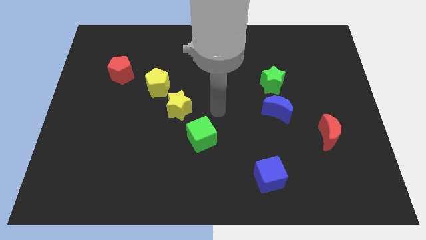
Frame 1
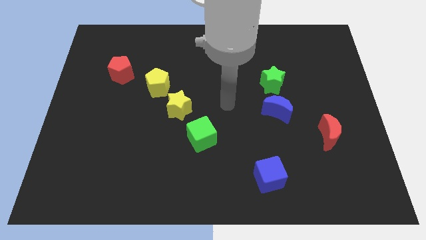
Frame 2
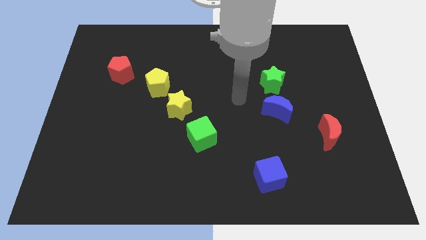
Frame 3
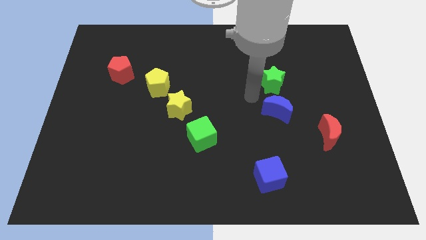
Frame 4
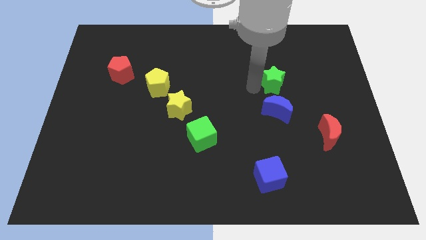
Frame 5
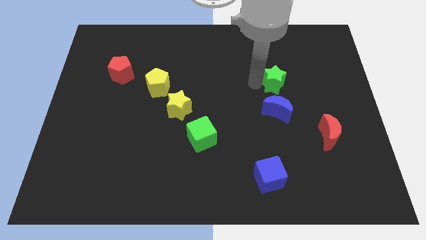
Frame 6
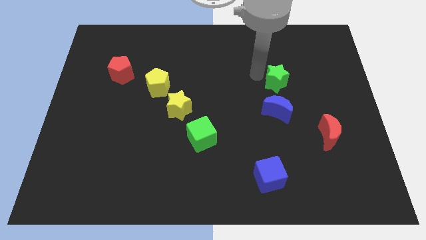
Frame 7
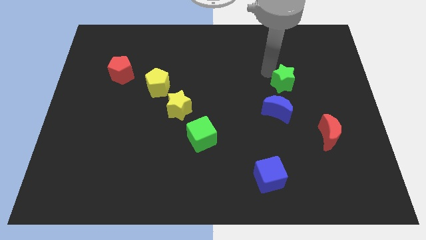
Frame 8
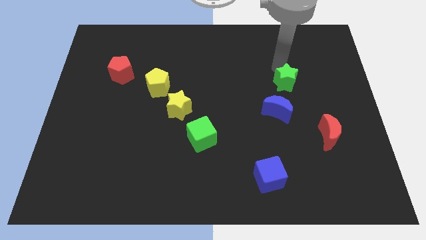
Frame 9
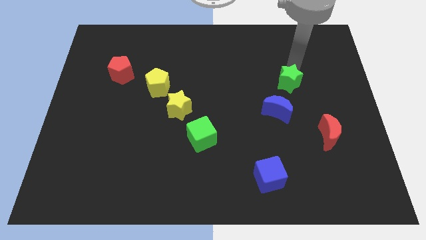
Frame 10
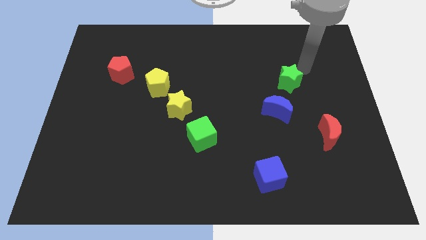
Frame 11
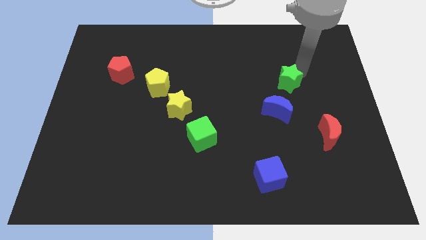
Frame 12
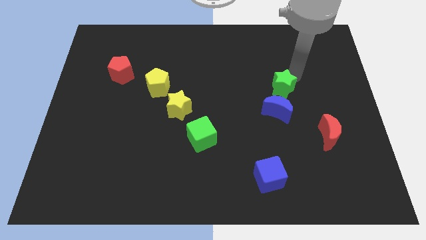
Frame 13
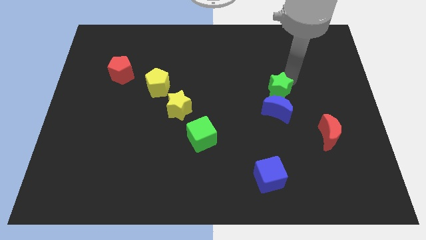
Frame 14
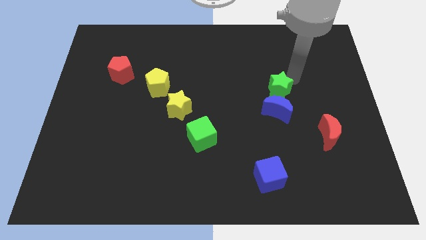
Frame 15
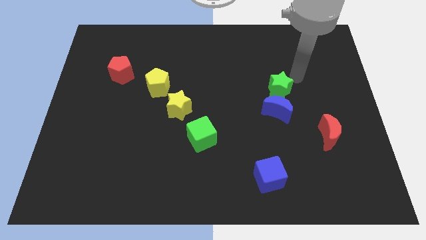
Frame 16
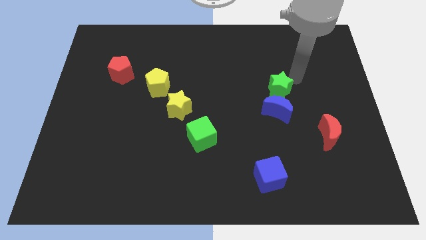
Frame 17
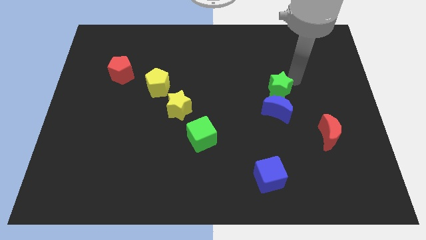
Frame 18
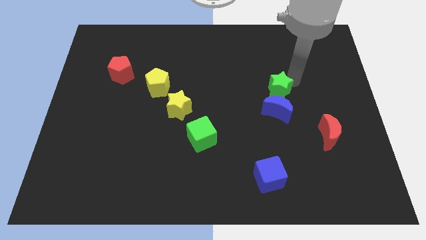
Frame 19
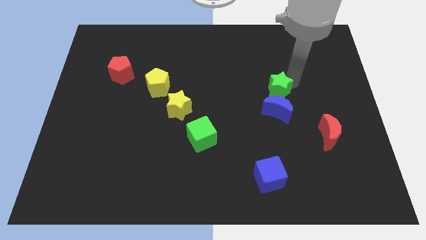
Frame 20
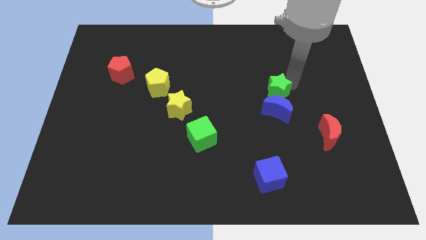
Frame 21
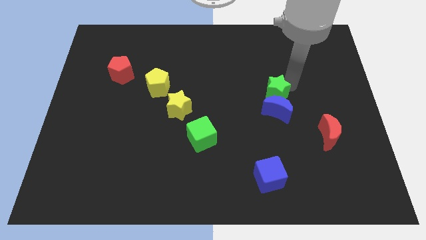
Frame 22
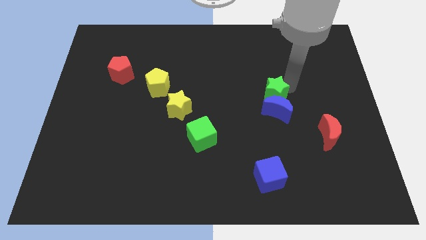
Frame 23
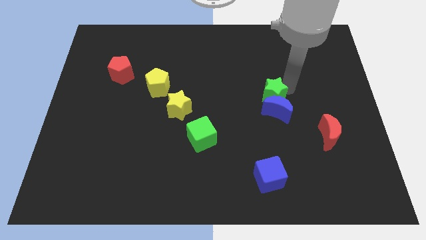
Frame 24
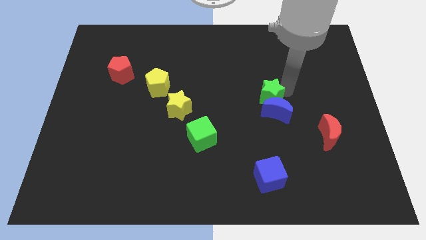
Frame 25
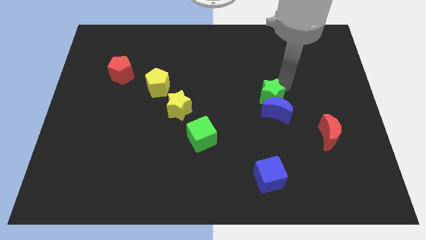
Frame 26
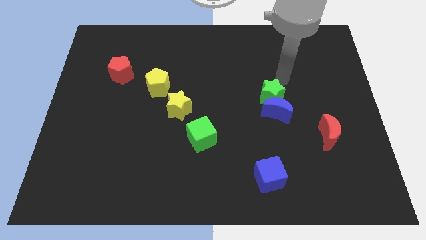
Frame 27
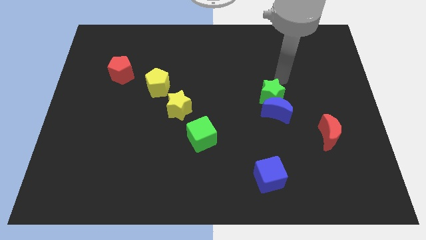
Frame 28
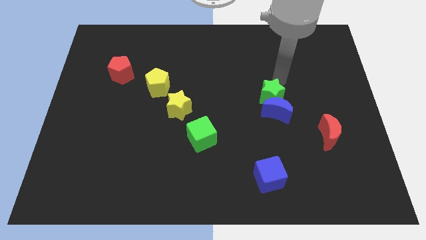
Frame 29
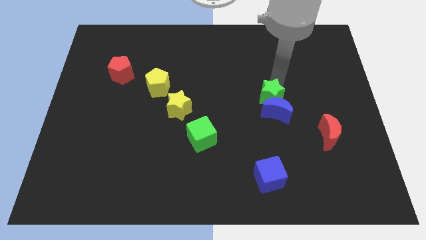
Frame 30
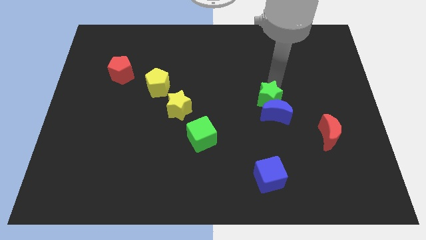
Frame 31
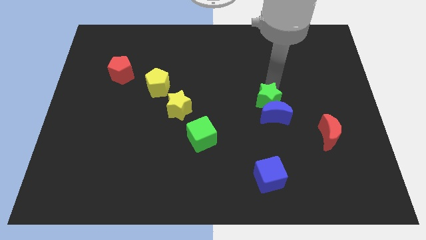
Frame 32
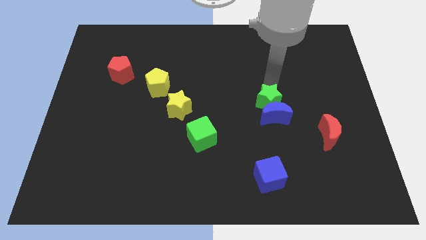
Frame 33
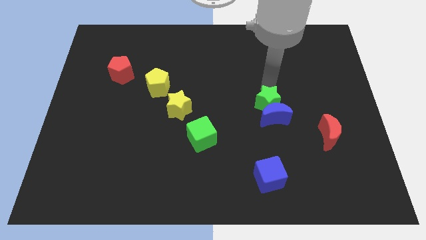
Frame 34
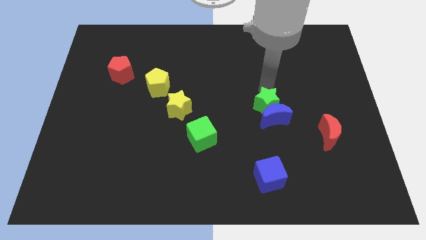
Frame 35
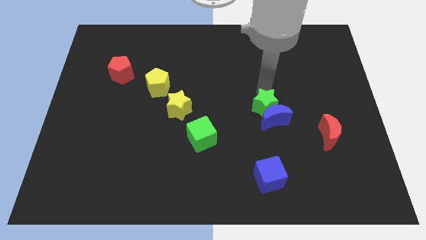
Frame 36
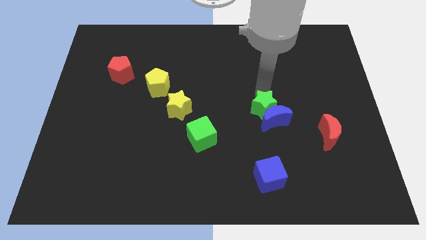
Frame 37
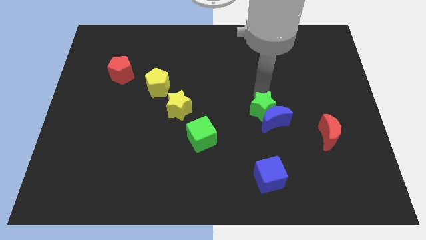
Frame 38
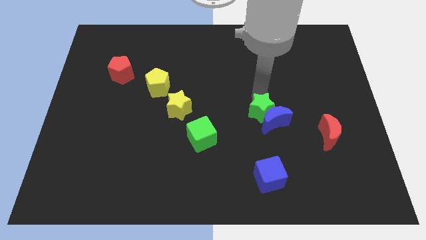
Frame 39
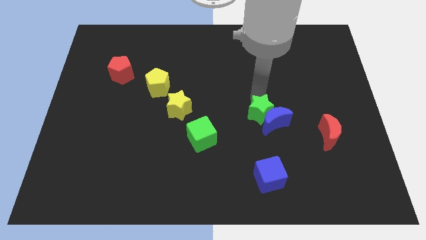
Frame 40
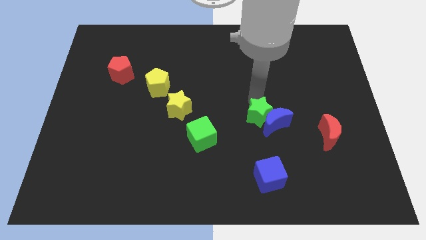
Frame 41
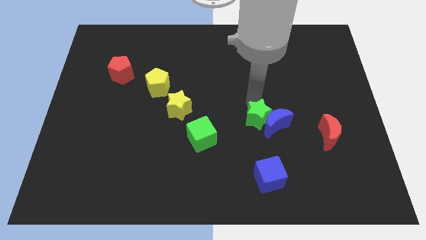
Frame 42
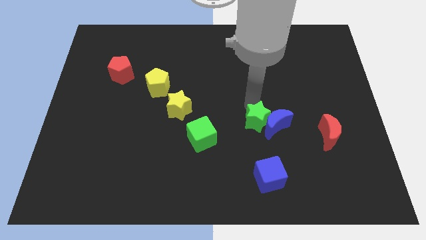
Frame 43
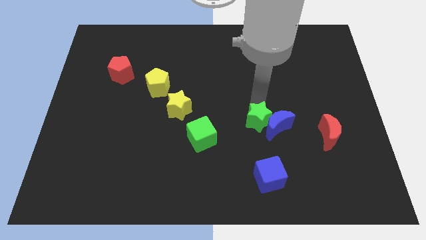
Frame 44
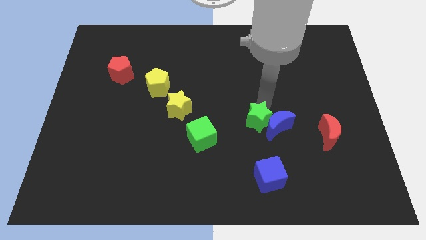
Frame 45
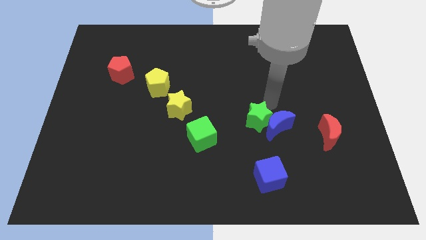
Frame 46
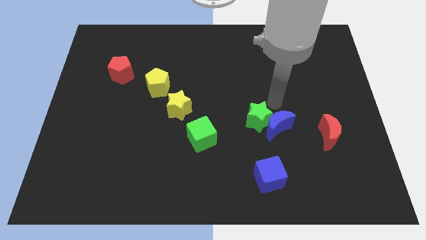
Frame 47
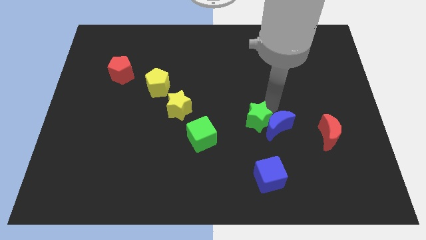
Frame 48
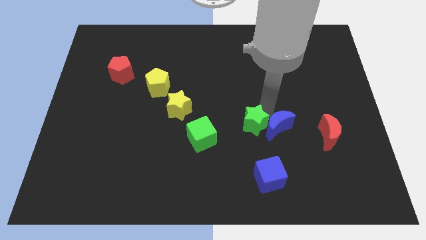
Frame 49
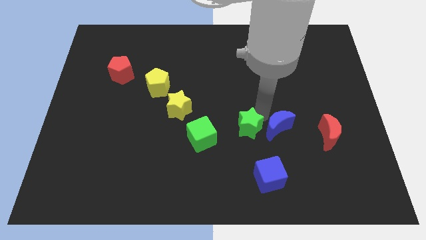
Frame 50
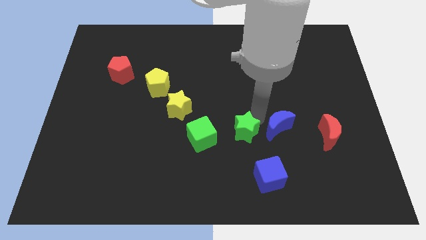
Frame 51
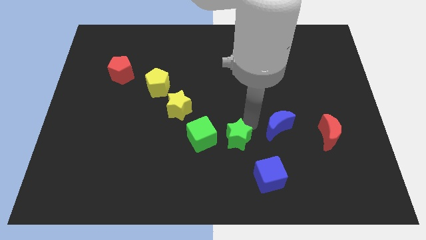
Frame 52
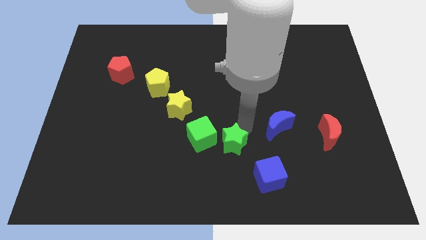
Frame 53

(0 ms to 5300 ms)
push the green star diagonally down and to the right of the green cube

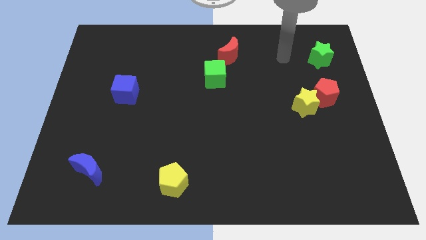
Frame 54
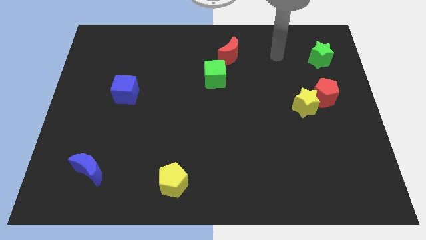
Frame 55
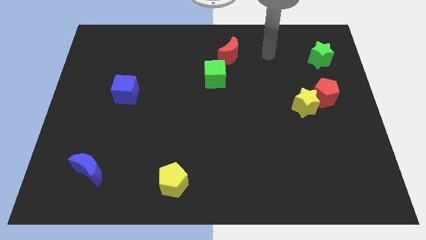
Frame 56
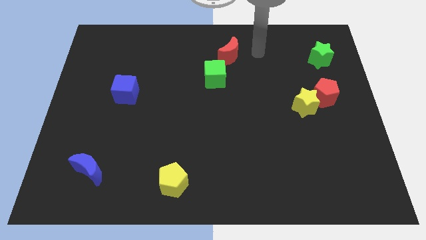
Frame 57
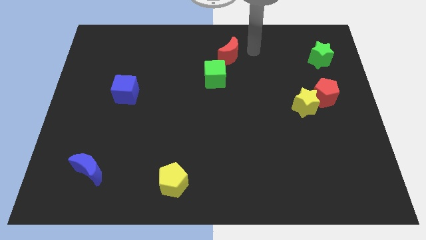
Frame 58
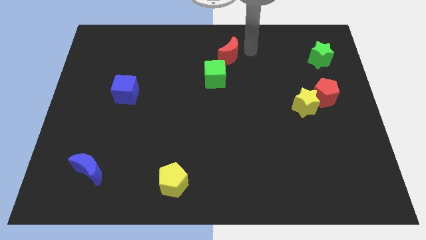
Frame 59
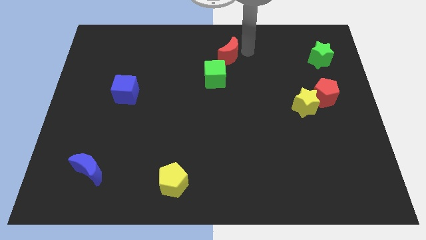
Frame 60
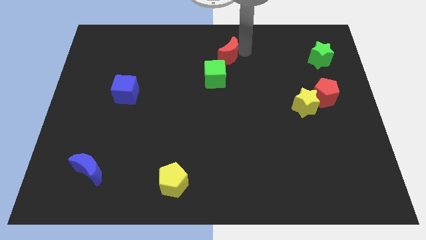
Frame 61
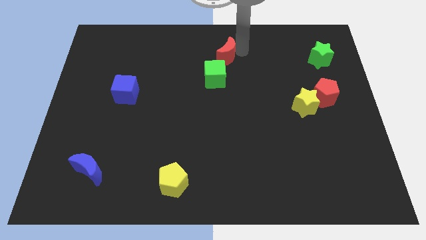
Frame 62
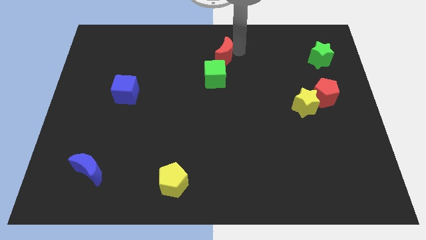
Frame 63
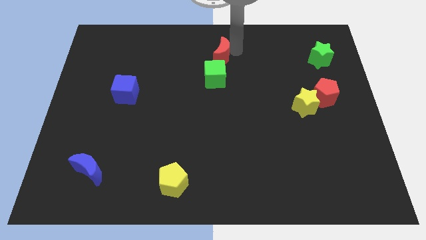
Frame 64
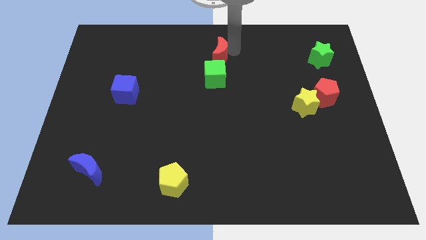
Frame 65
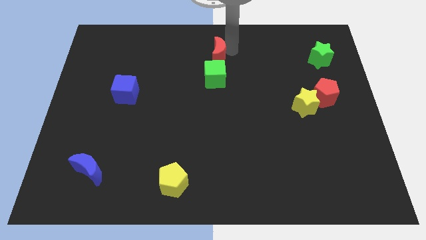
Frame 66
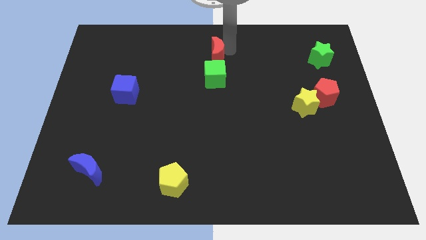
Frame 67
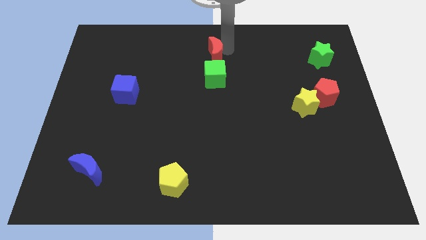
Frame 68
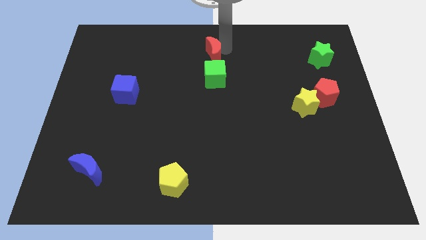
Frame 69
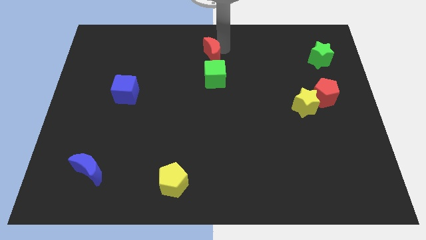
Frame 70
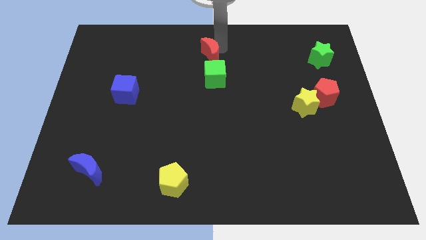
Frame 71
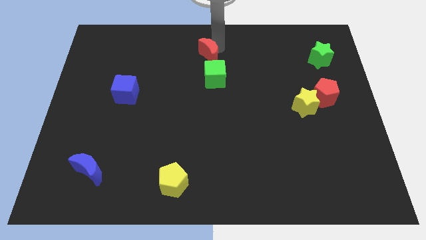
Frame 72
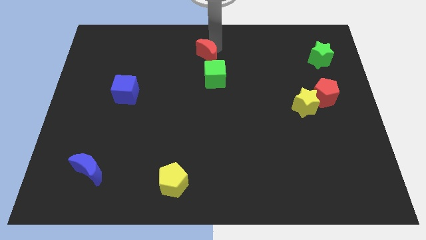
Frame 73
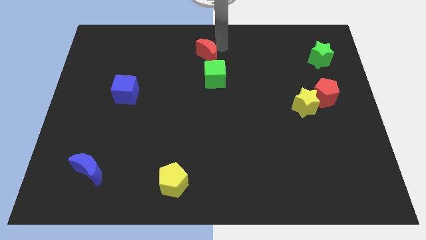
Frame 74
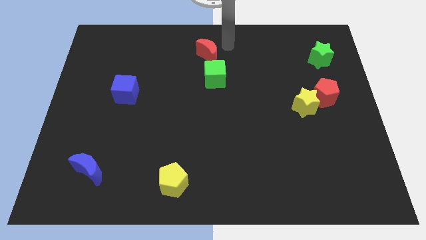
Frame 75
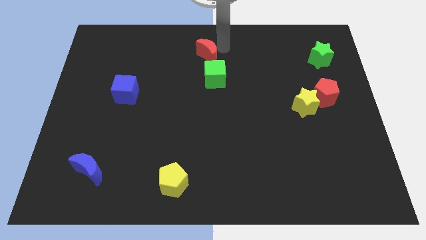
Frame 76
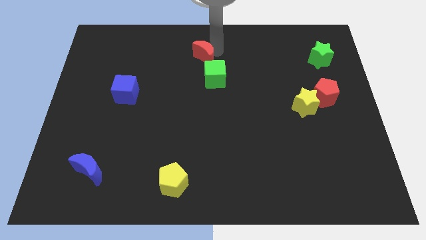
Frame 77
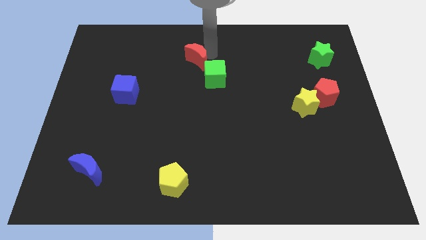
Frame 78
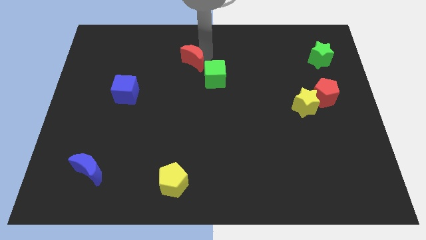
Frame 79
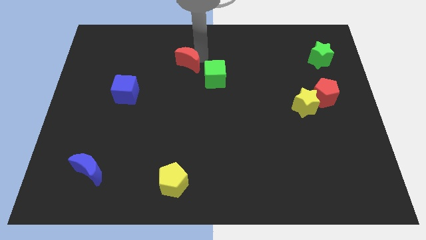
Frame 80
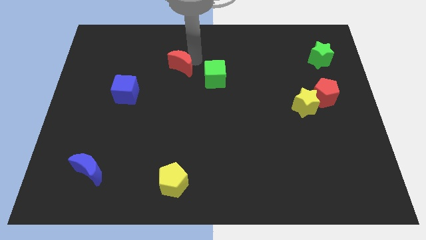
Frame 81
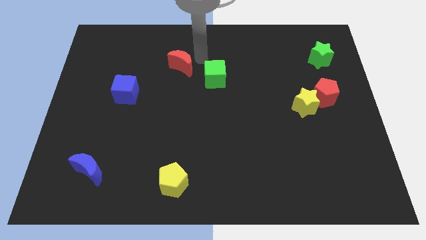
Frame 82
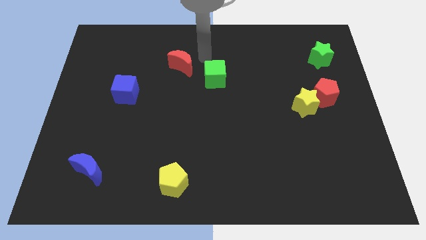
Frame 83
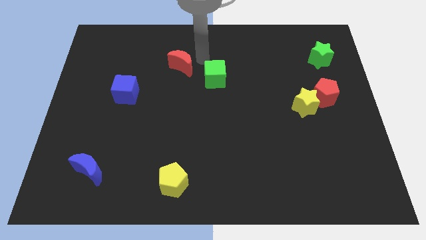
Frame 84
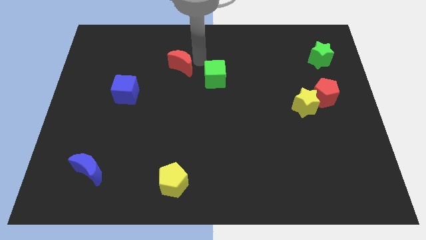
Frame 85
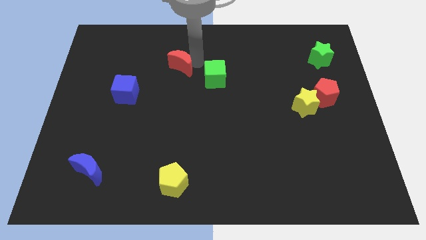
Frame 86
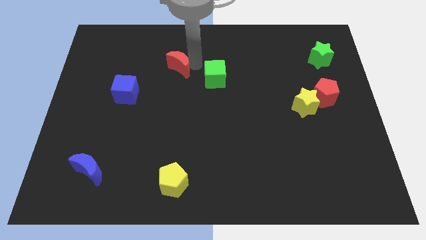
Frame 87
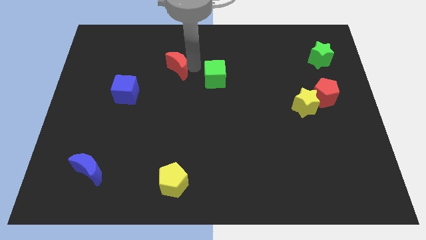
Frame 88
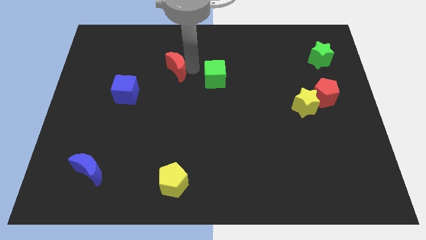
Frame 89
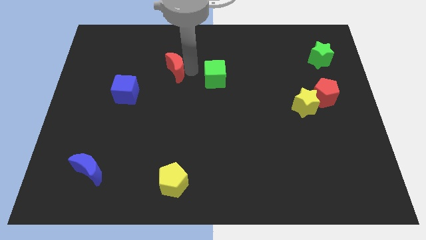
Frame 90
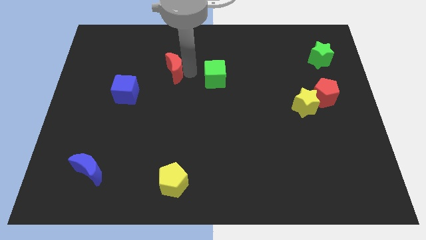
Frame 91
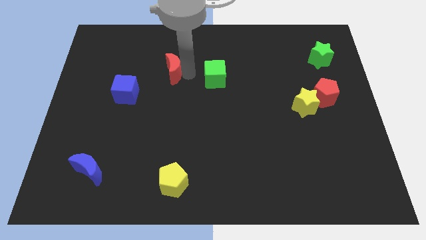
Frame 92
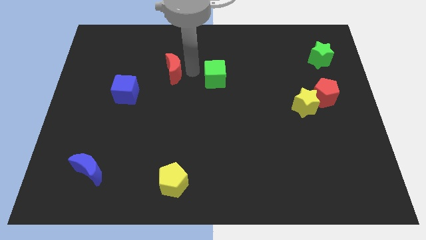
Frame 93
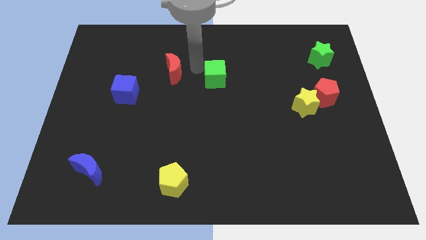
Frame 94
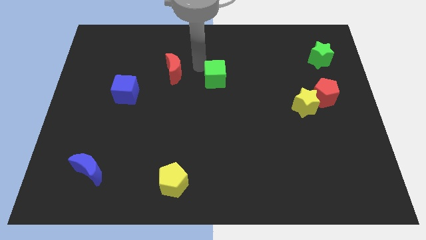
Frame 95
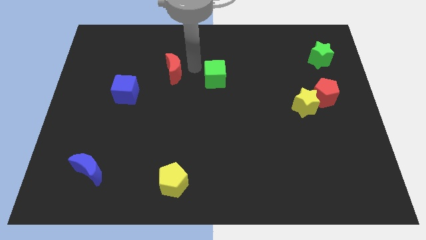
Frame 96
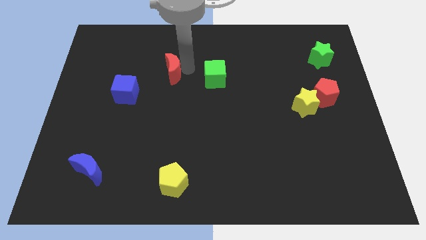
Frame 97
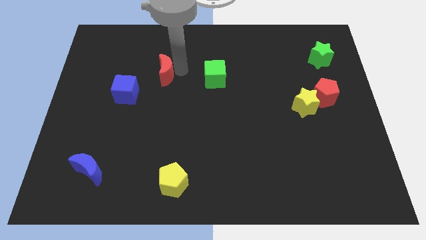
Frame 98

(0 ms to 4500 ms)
push the red moon to the top right side of the blue cube
